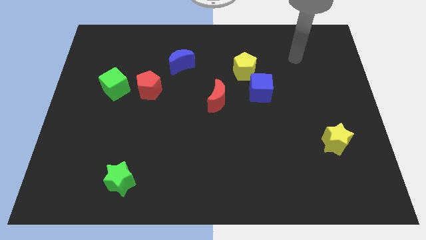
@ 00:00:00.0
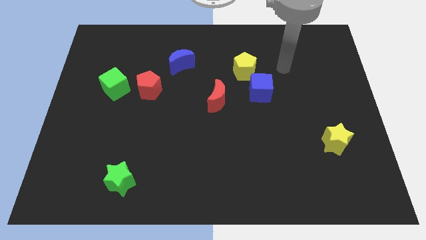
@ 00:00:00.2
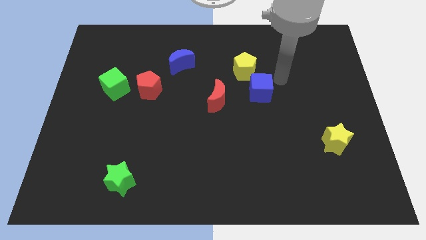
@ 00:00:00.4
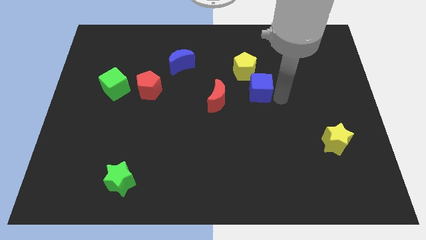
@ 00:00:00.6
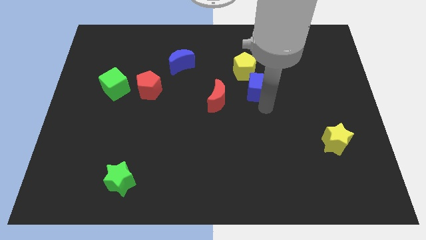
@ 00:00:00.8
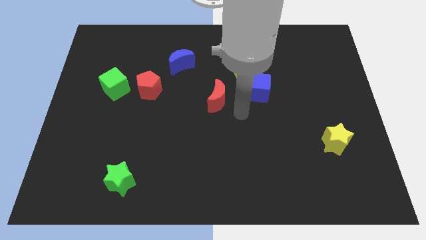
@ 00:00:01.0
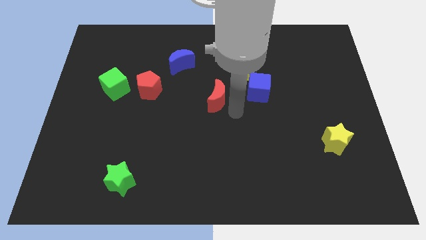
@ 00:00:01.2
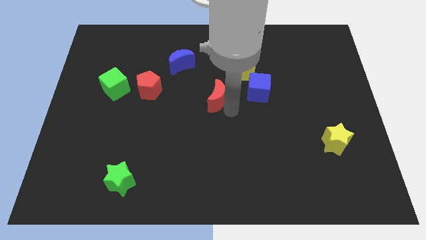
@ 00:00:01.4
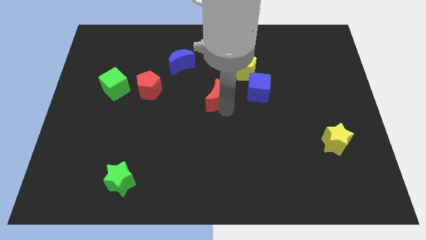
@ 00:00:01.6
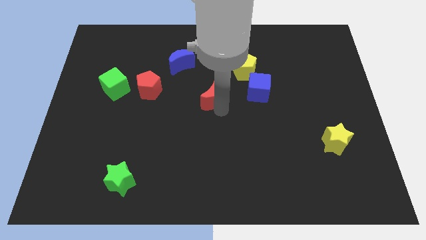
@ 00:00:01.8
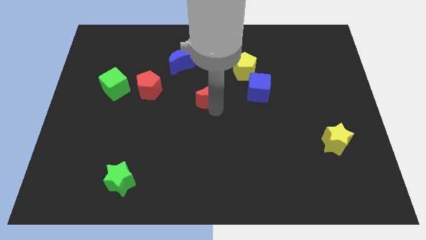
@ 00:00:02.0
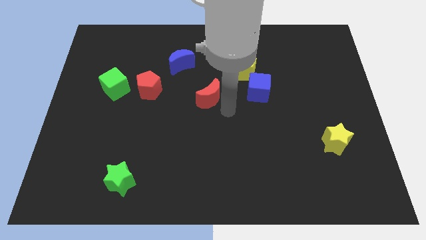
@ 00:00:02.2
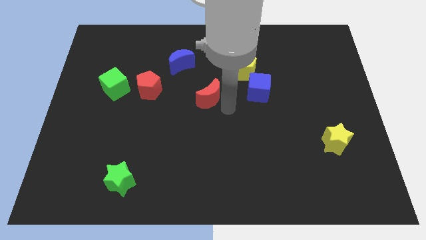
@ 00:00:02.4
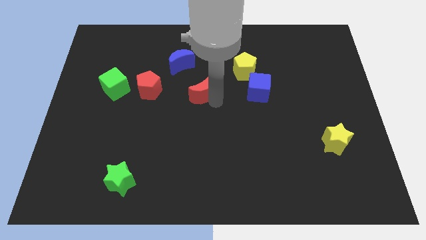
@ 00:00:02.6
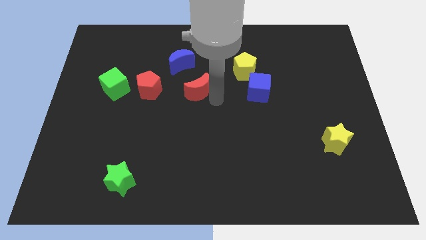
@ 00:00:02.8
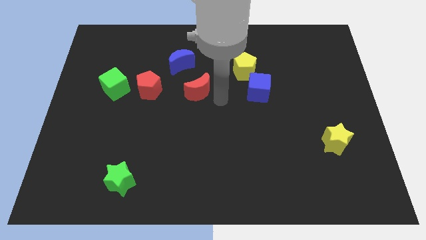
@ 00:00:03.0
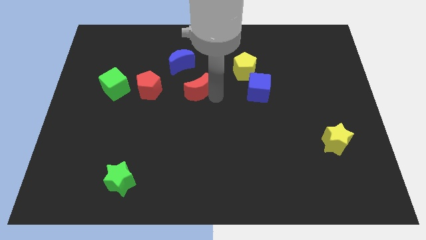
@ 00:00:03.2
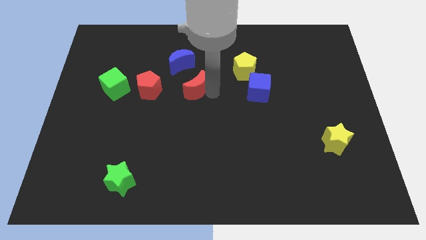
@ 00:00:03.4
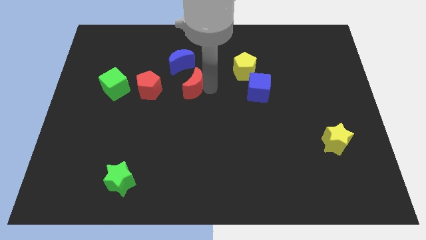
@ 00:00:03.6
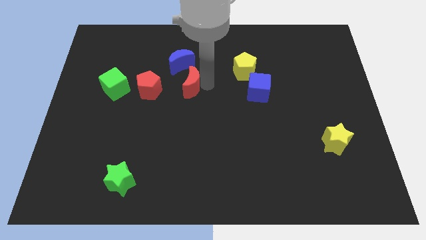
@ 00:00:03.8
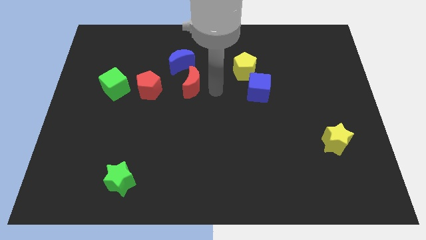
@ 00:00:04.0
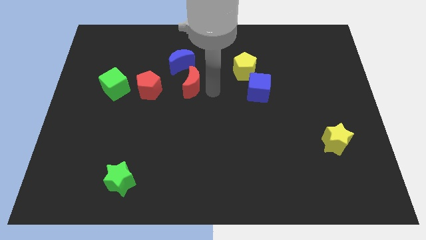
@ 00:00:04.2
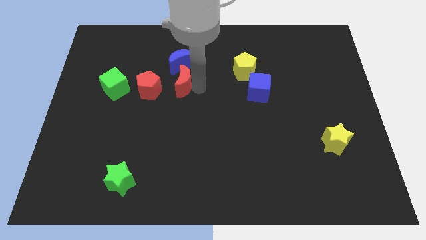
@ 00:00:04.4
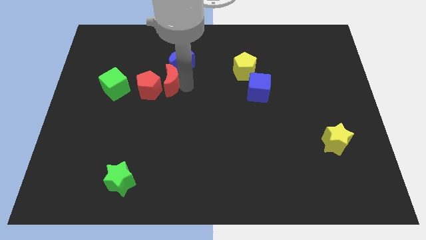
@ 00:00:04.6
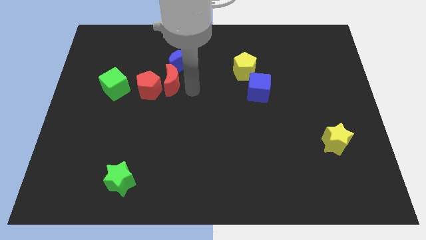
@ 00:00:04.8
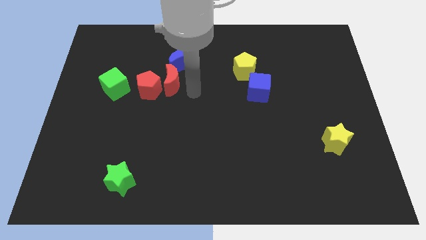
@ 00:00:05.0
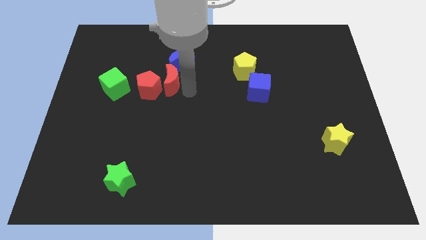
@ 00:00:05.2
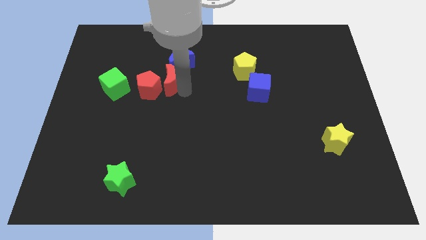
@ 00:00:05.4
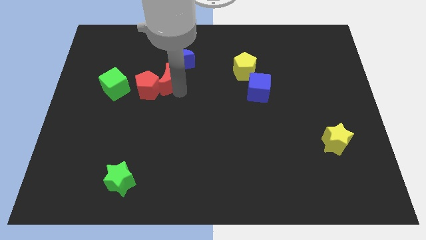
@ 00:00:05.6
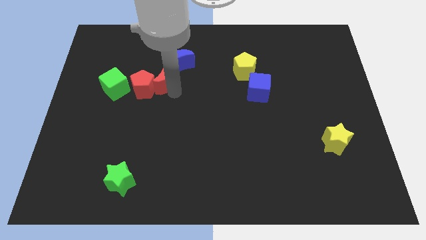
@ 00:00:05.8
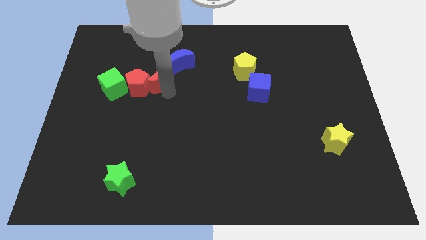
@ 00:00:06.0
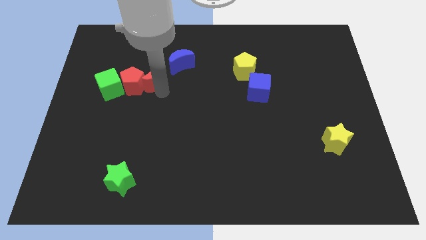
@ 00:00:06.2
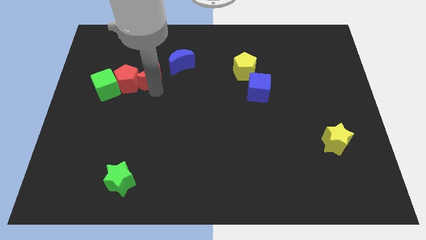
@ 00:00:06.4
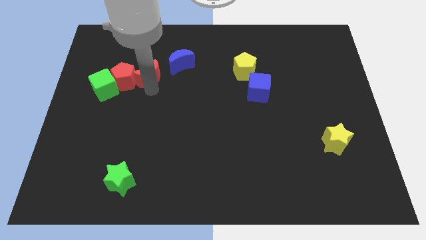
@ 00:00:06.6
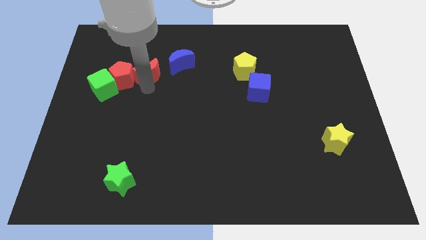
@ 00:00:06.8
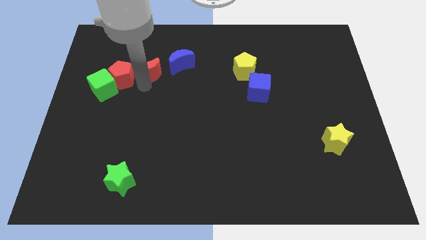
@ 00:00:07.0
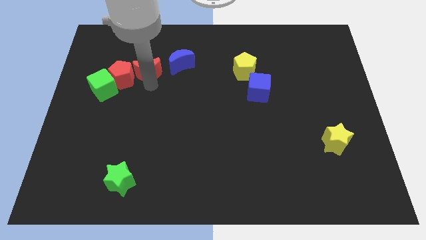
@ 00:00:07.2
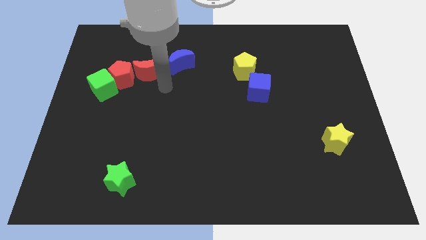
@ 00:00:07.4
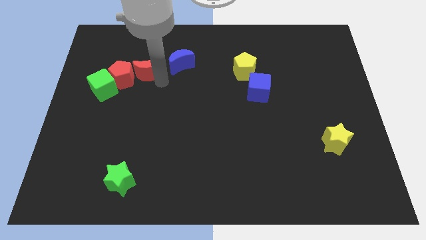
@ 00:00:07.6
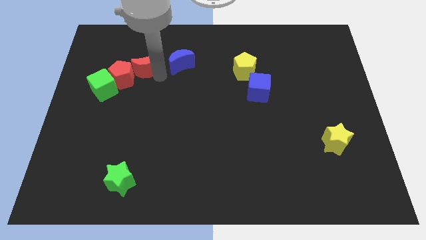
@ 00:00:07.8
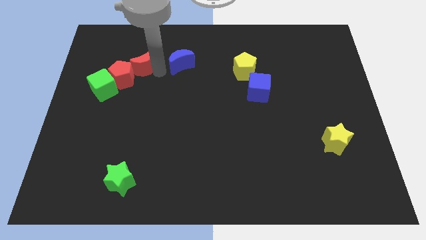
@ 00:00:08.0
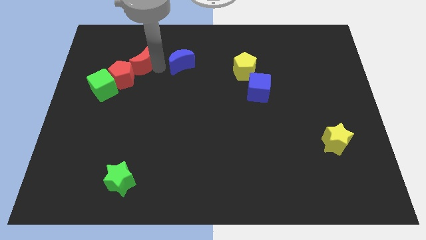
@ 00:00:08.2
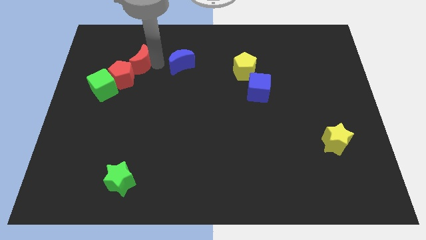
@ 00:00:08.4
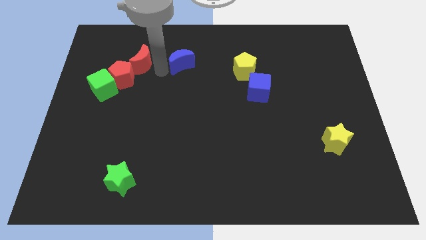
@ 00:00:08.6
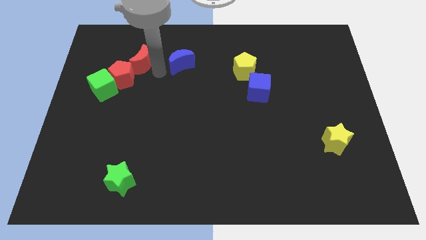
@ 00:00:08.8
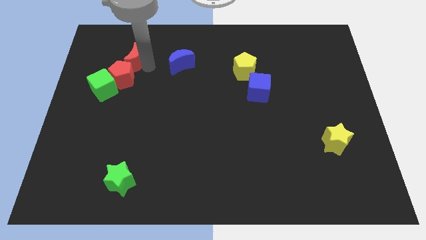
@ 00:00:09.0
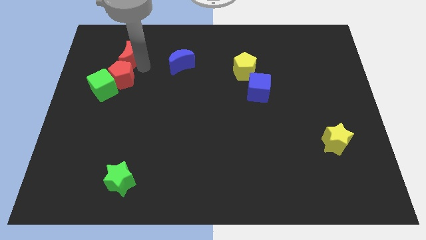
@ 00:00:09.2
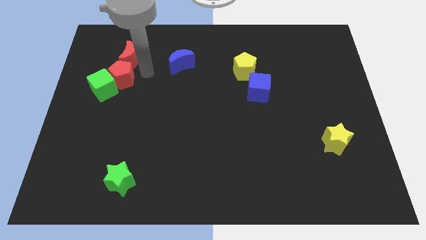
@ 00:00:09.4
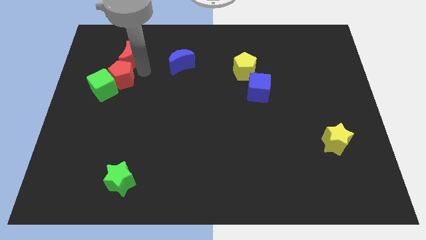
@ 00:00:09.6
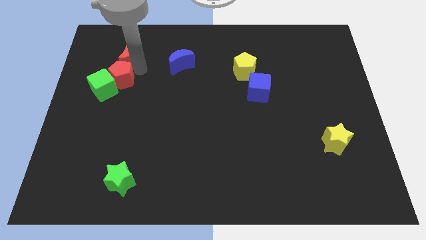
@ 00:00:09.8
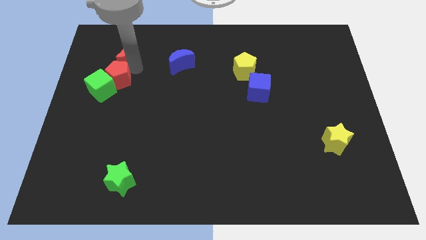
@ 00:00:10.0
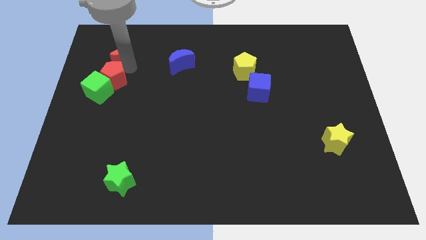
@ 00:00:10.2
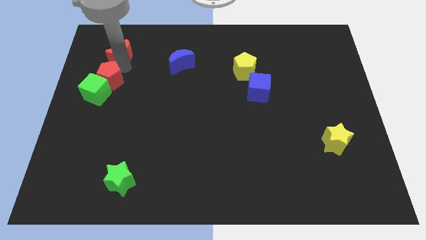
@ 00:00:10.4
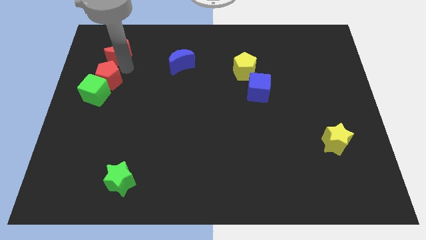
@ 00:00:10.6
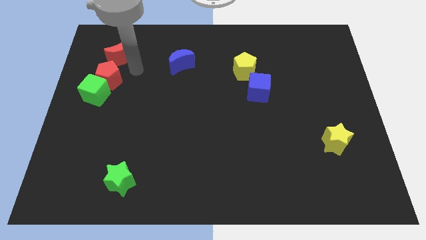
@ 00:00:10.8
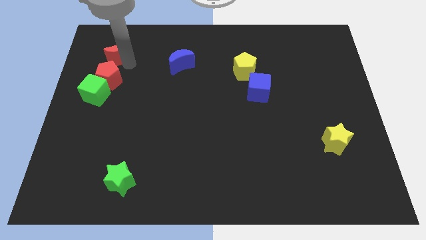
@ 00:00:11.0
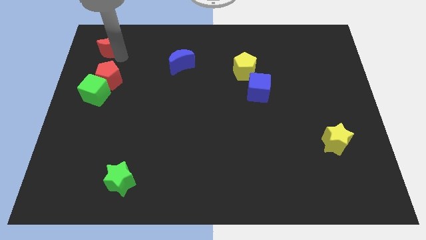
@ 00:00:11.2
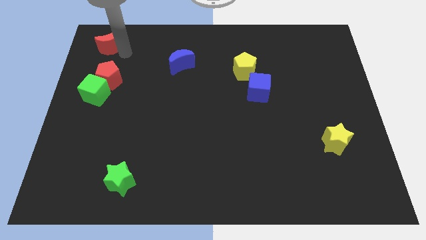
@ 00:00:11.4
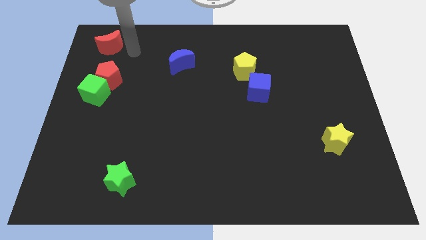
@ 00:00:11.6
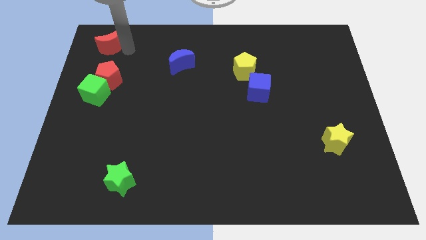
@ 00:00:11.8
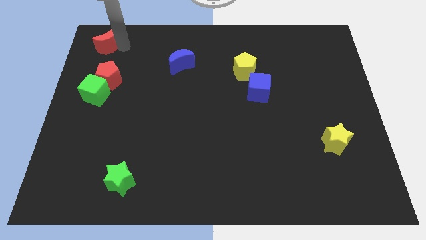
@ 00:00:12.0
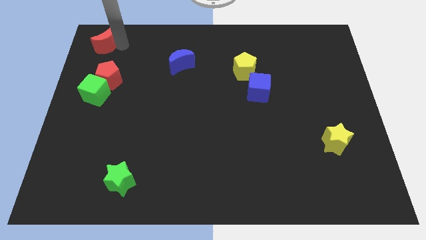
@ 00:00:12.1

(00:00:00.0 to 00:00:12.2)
move the red moon to the top left of the board
